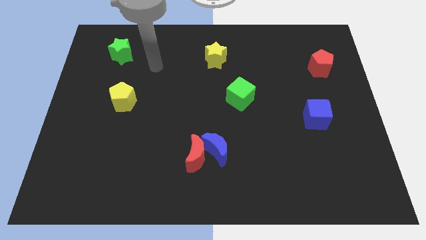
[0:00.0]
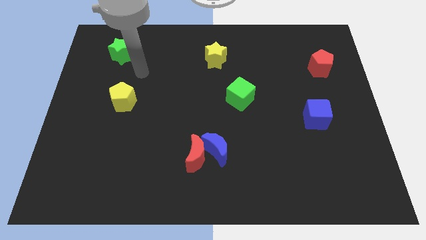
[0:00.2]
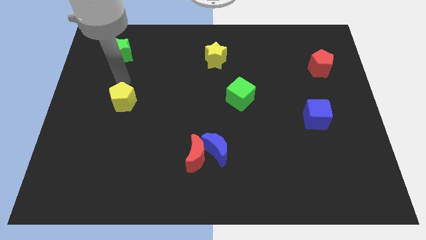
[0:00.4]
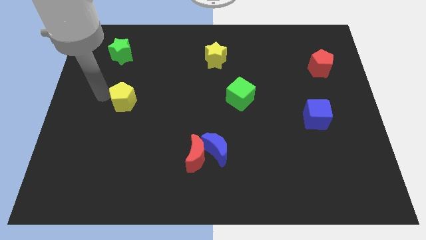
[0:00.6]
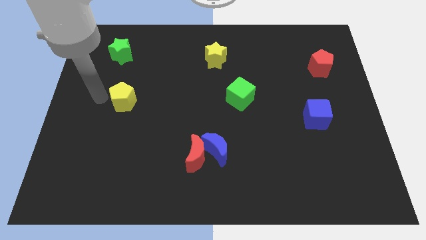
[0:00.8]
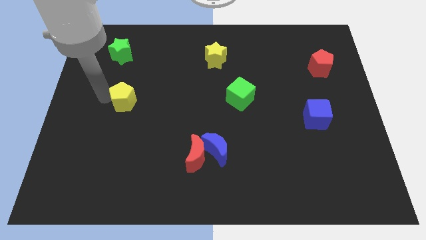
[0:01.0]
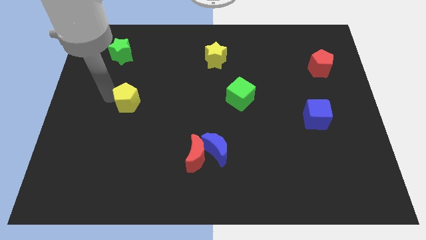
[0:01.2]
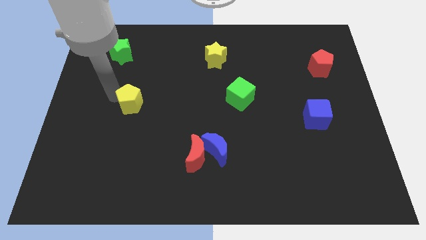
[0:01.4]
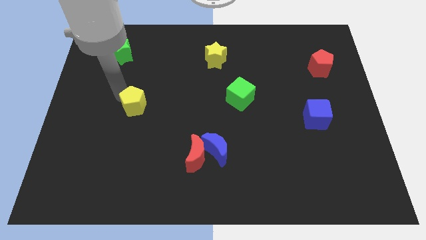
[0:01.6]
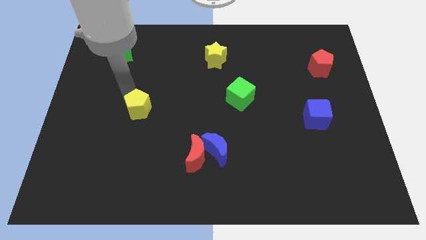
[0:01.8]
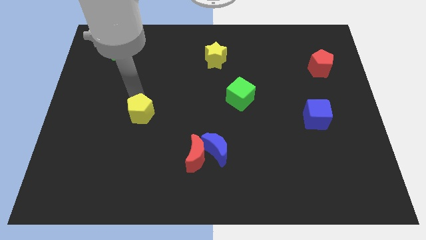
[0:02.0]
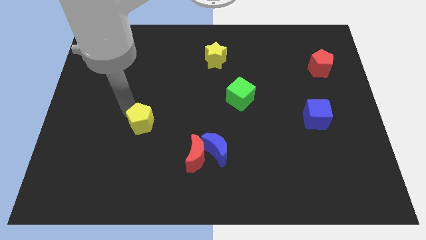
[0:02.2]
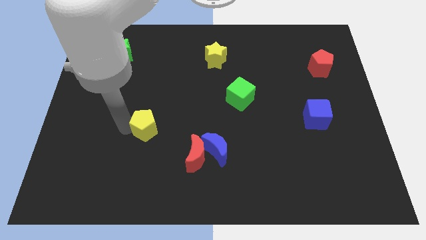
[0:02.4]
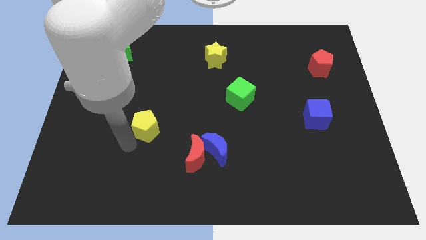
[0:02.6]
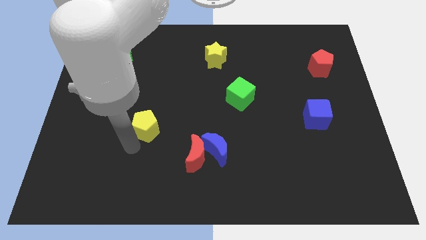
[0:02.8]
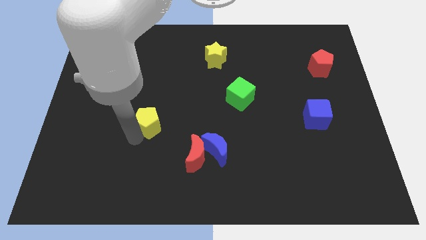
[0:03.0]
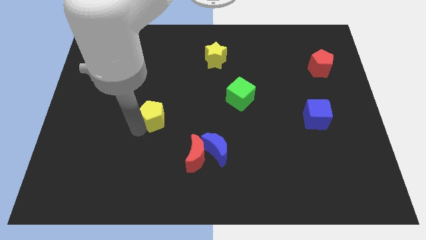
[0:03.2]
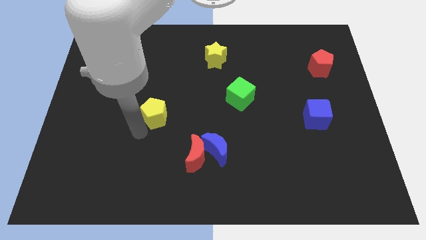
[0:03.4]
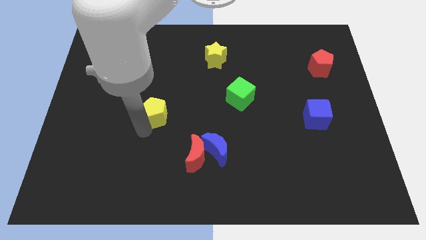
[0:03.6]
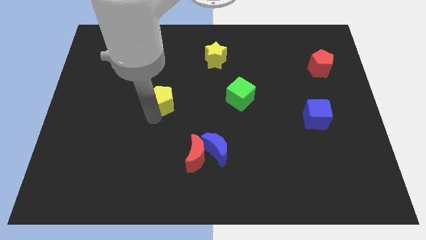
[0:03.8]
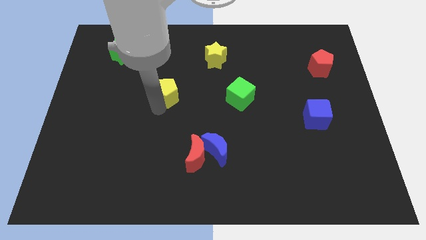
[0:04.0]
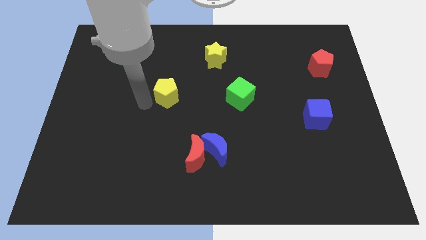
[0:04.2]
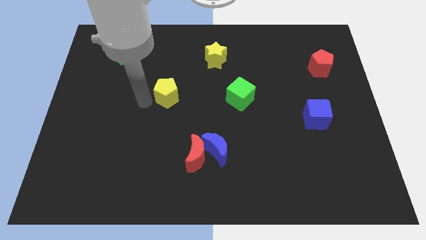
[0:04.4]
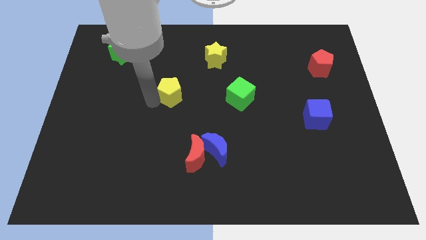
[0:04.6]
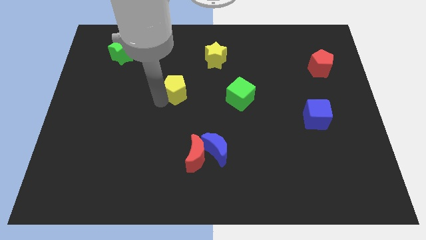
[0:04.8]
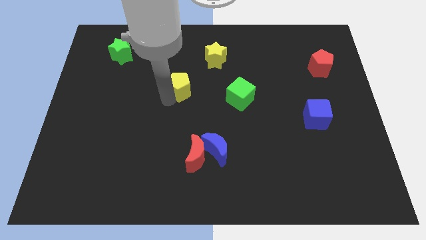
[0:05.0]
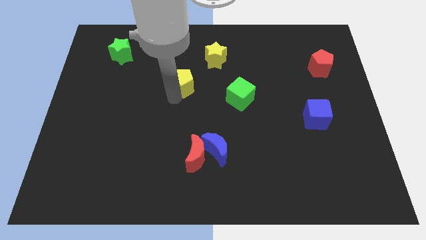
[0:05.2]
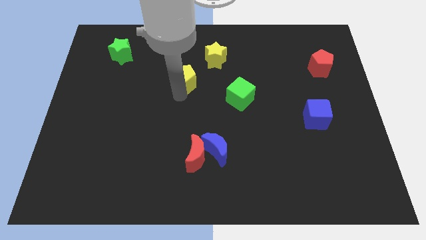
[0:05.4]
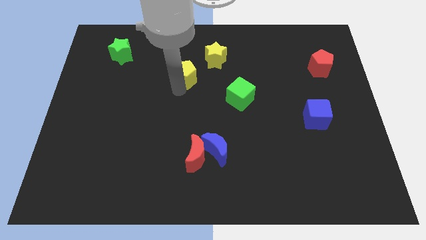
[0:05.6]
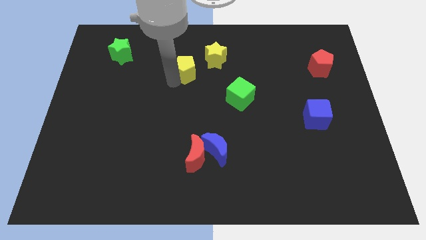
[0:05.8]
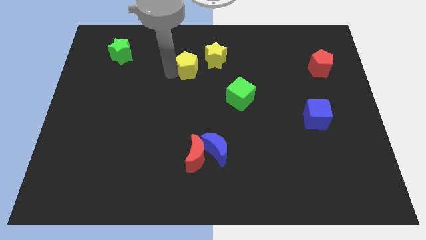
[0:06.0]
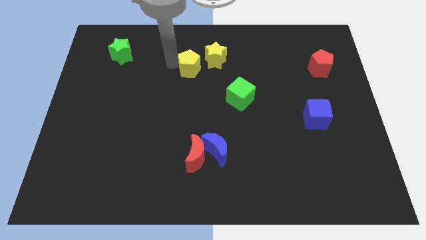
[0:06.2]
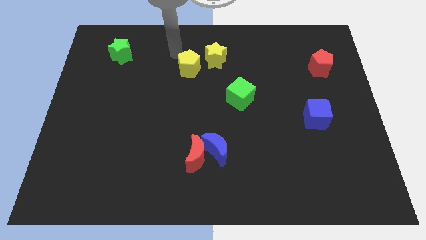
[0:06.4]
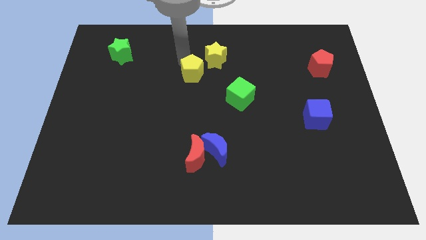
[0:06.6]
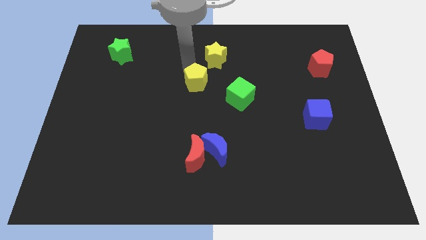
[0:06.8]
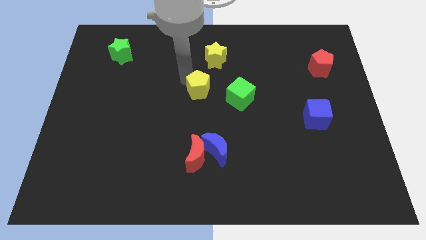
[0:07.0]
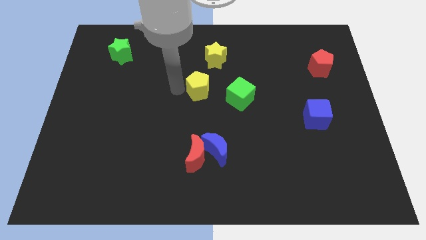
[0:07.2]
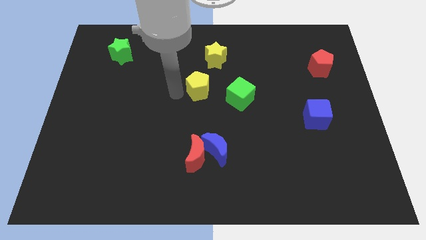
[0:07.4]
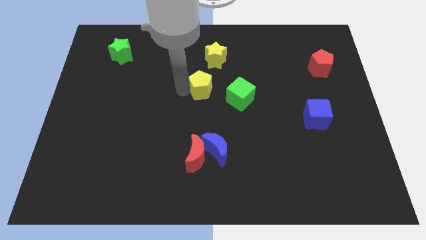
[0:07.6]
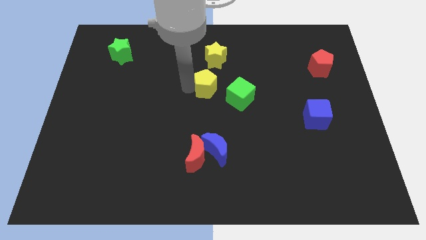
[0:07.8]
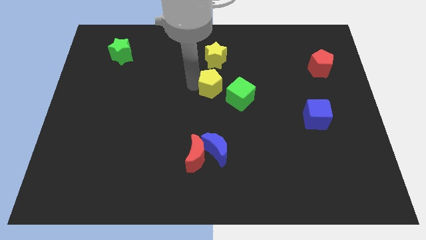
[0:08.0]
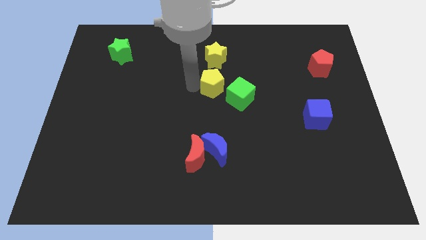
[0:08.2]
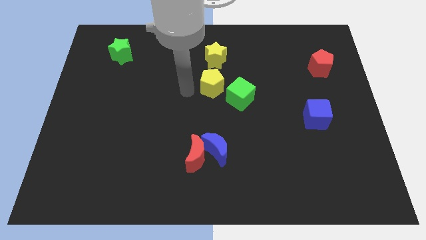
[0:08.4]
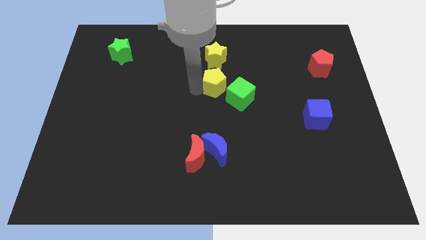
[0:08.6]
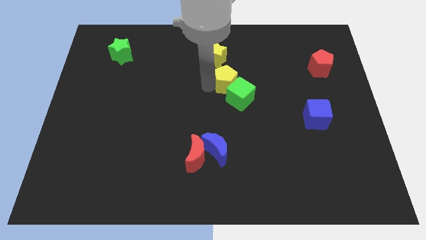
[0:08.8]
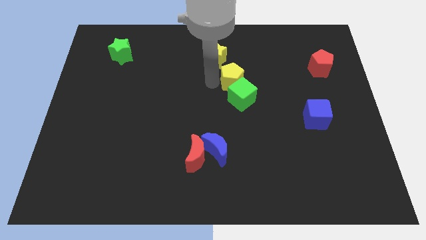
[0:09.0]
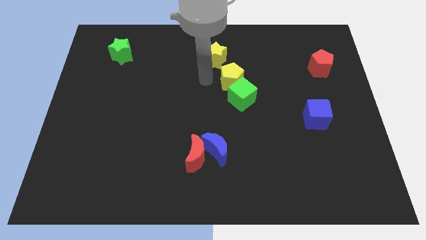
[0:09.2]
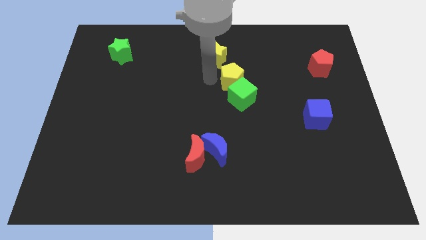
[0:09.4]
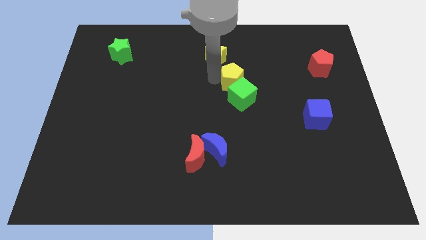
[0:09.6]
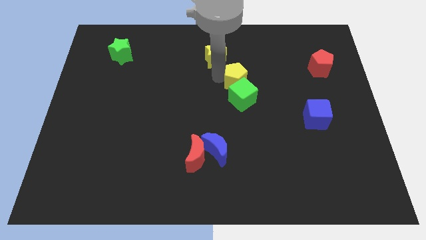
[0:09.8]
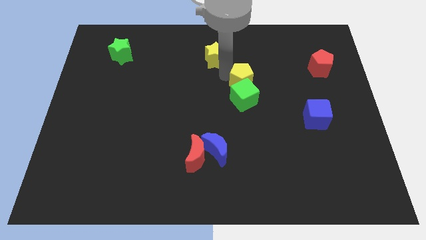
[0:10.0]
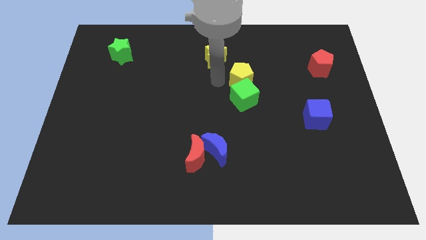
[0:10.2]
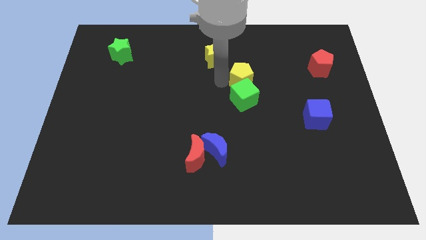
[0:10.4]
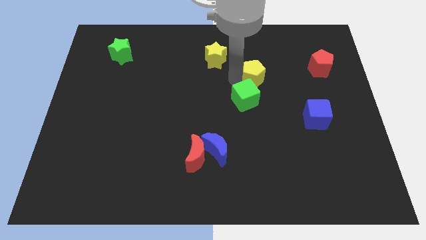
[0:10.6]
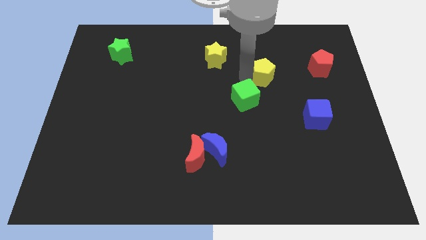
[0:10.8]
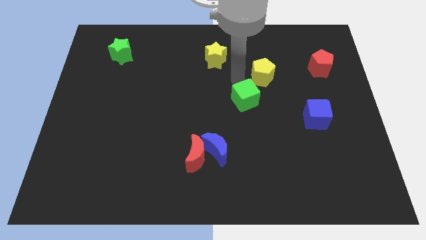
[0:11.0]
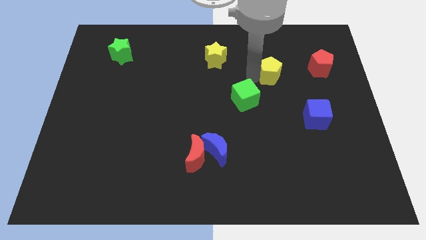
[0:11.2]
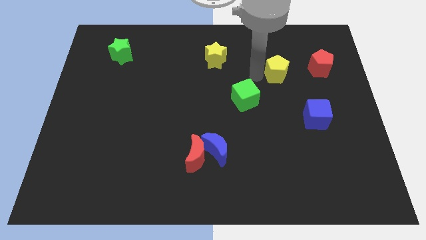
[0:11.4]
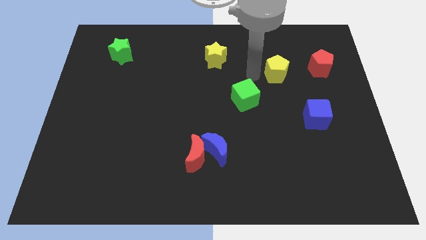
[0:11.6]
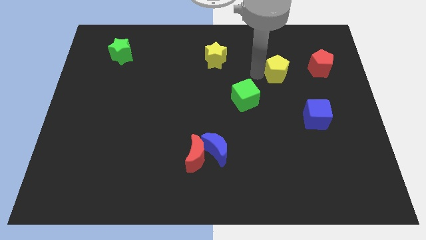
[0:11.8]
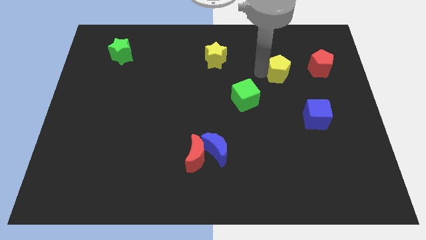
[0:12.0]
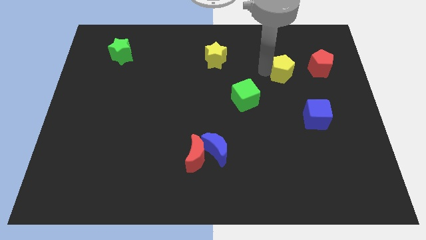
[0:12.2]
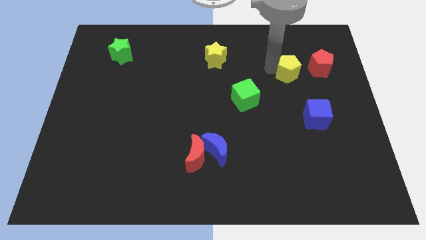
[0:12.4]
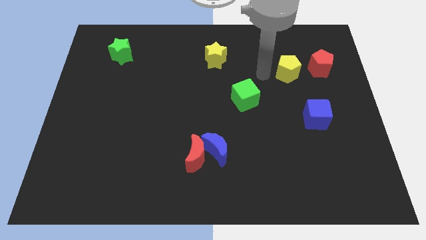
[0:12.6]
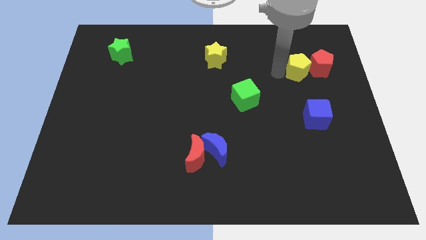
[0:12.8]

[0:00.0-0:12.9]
push the yellow pentagon towards the red pentagon

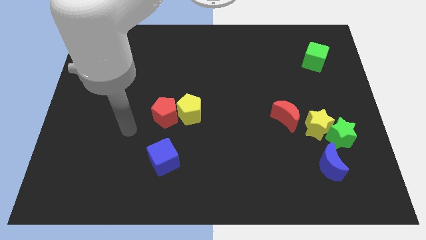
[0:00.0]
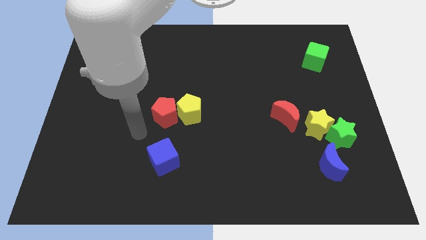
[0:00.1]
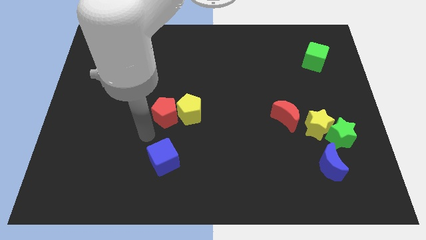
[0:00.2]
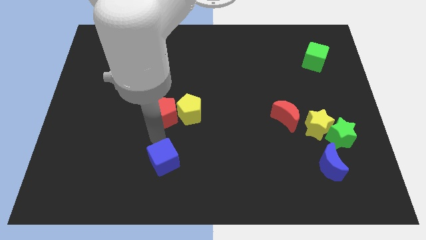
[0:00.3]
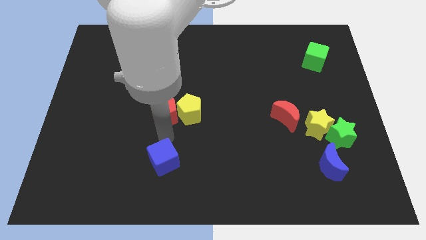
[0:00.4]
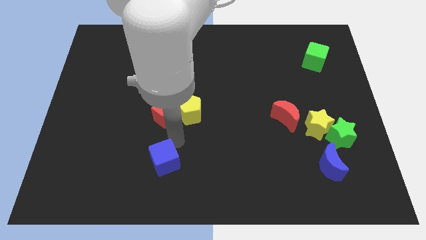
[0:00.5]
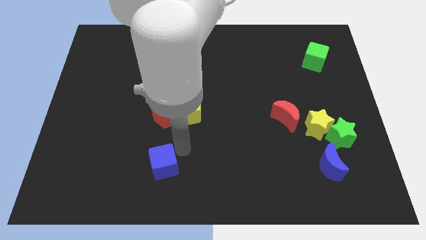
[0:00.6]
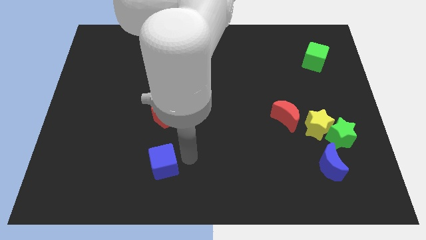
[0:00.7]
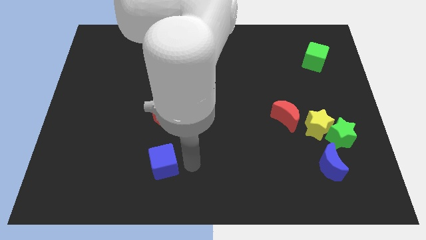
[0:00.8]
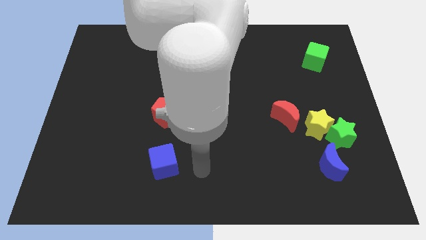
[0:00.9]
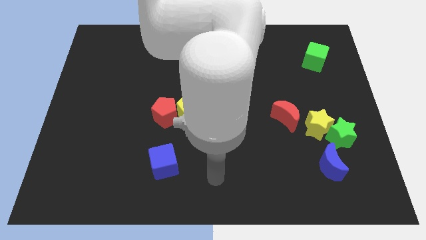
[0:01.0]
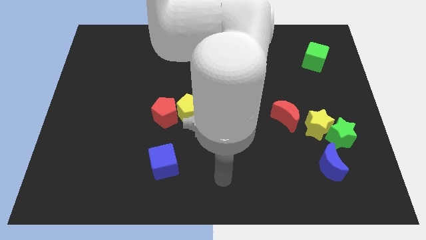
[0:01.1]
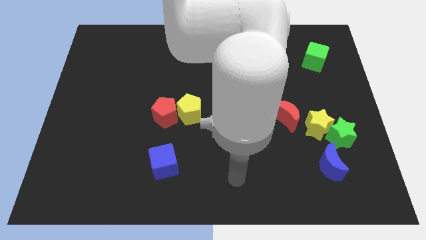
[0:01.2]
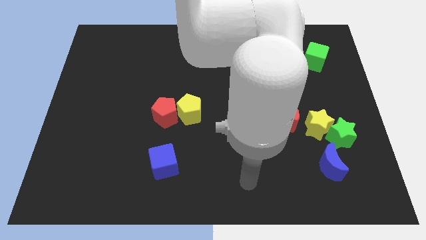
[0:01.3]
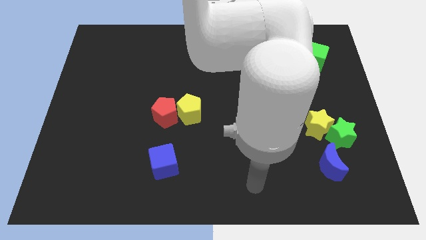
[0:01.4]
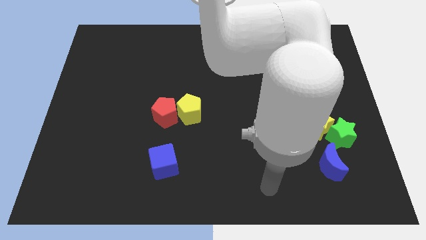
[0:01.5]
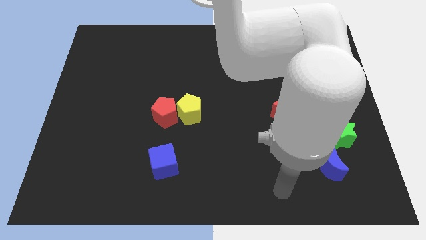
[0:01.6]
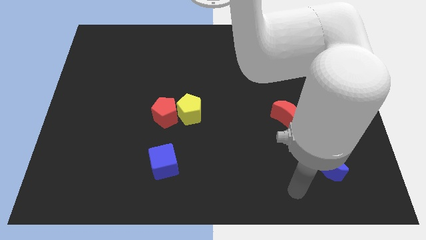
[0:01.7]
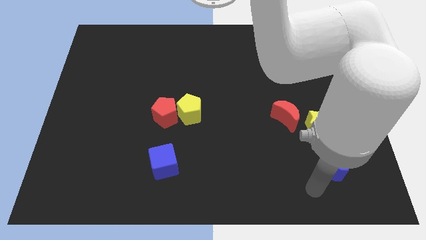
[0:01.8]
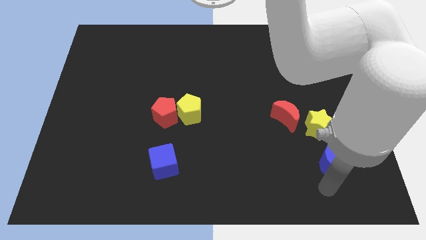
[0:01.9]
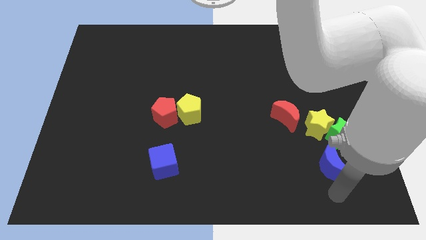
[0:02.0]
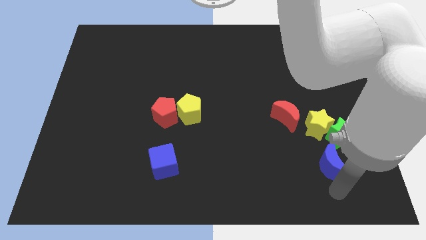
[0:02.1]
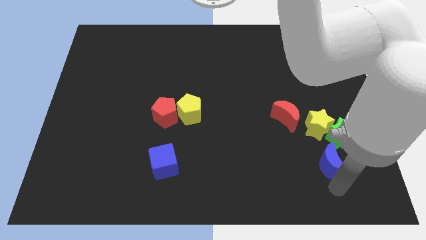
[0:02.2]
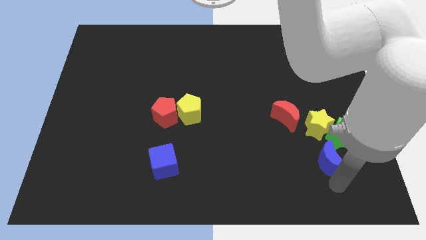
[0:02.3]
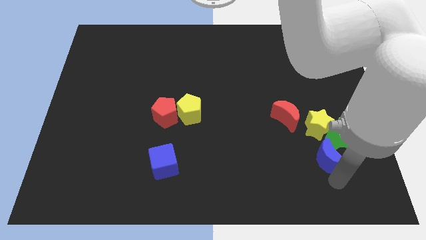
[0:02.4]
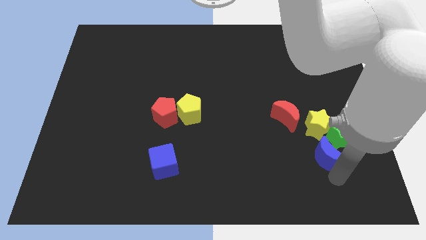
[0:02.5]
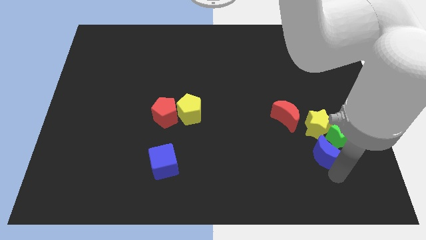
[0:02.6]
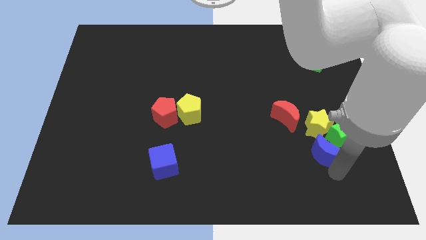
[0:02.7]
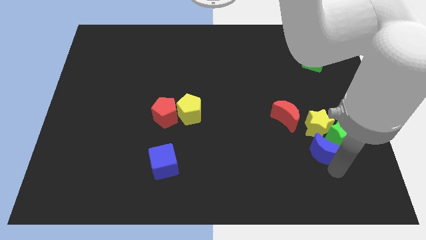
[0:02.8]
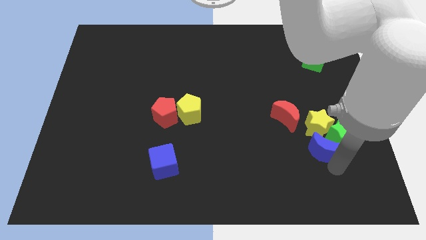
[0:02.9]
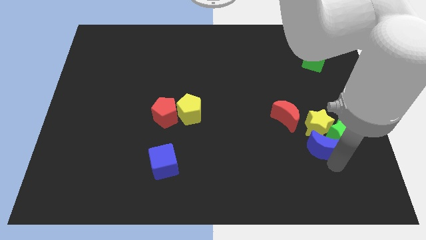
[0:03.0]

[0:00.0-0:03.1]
put the blue moon towards the yellow star
